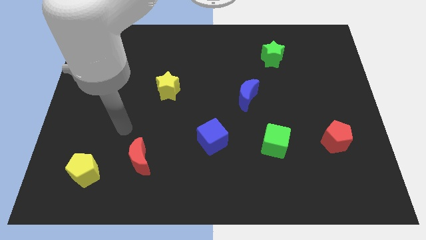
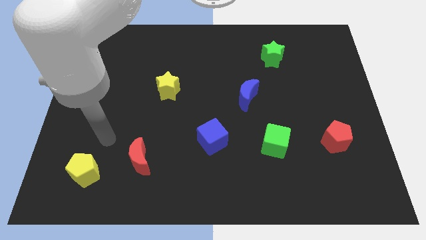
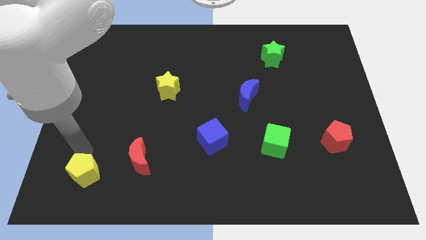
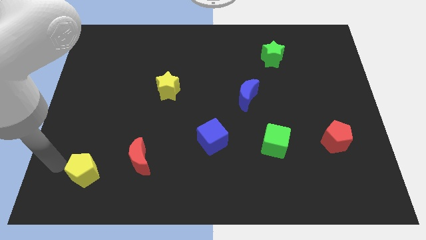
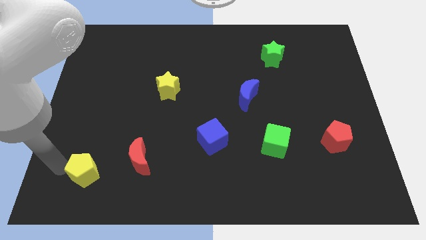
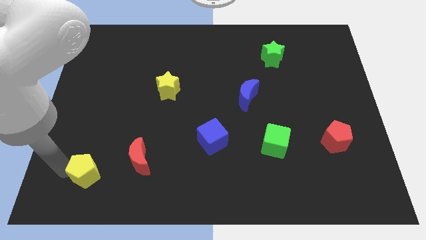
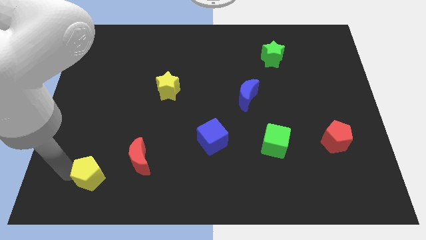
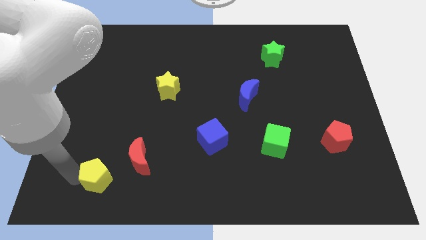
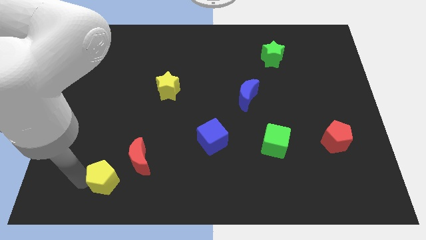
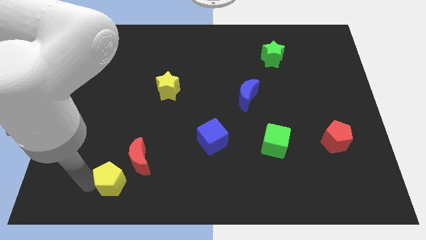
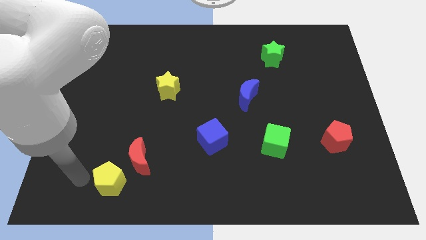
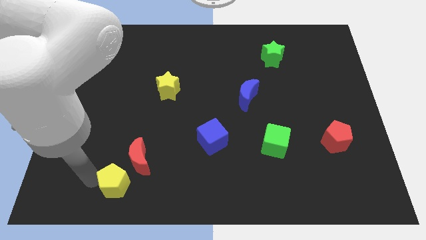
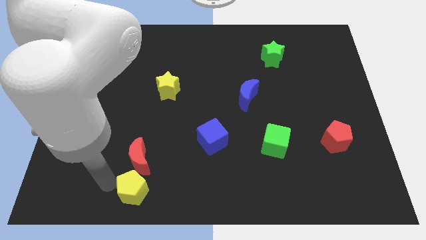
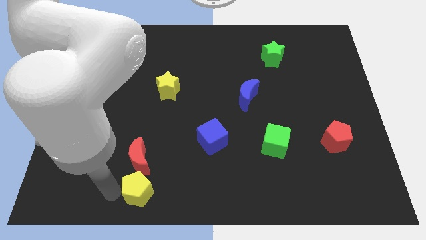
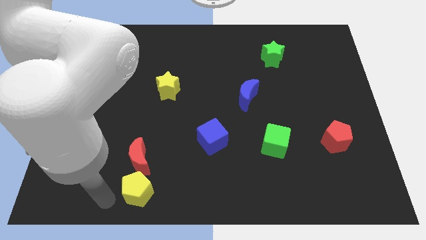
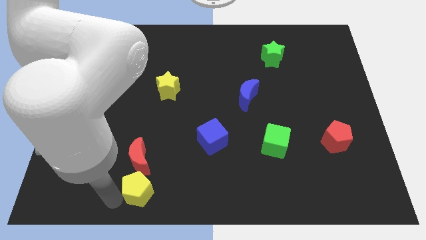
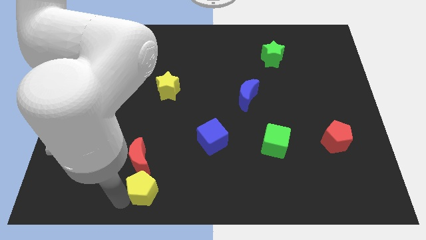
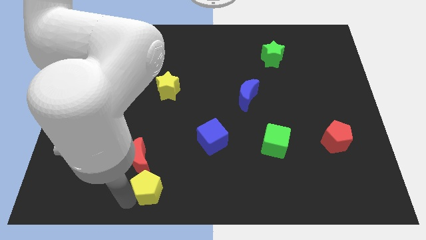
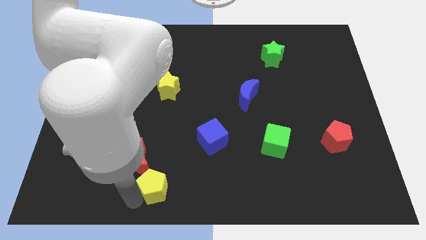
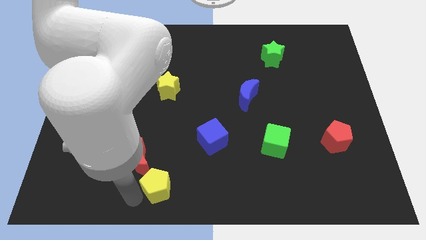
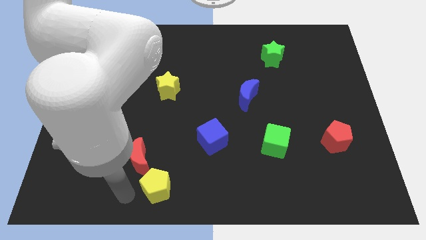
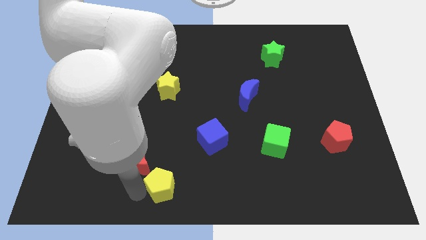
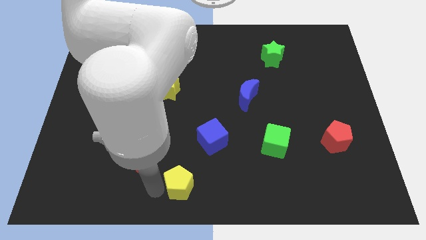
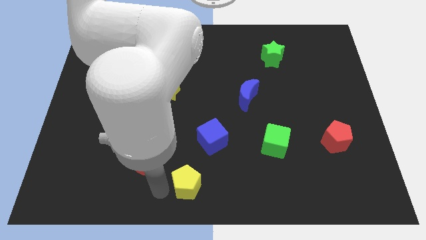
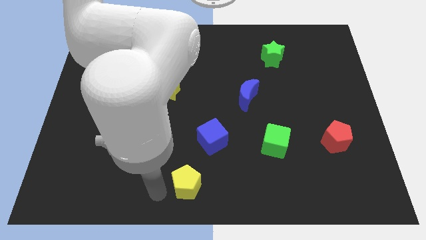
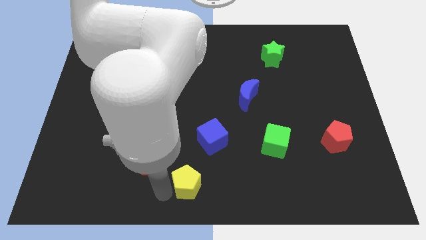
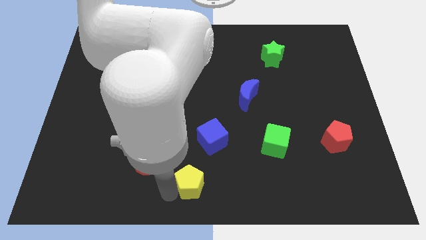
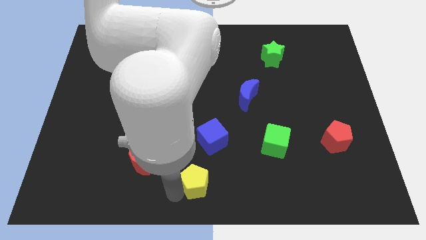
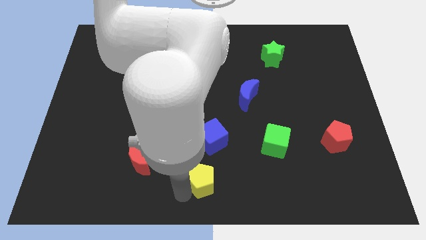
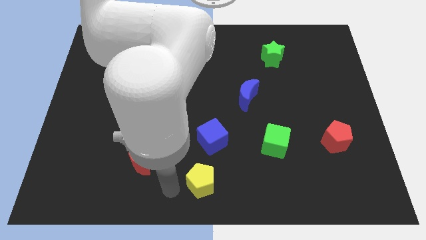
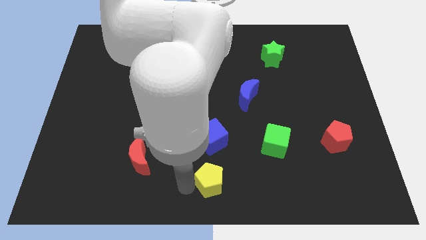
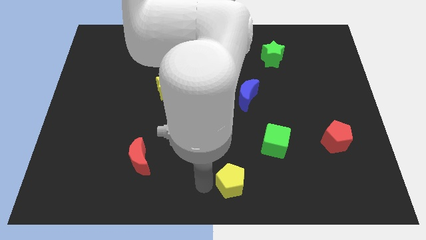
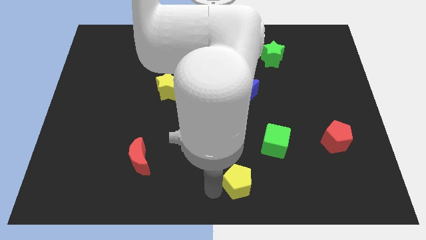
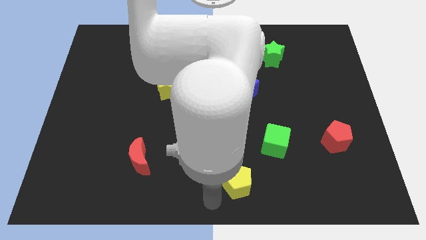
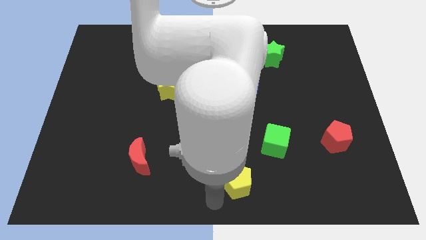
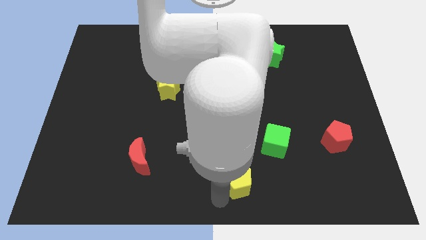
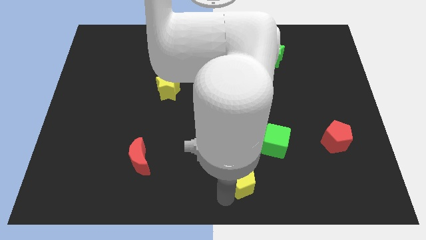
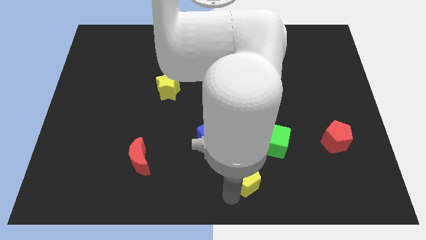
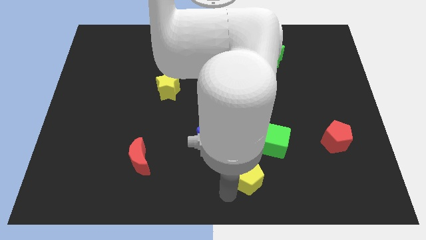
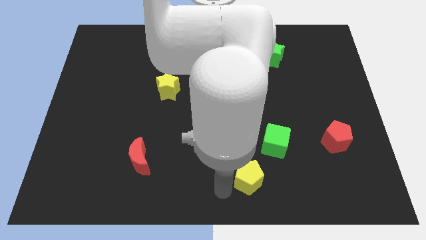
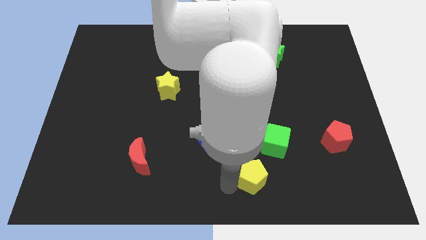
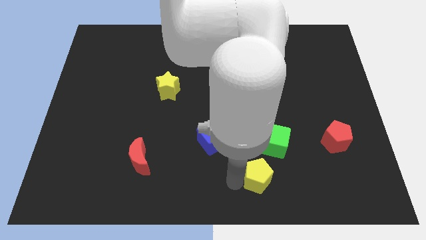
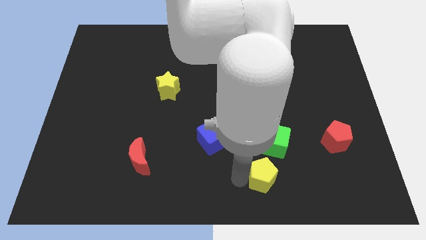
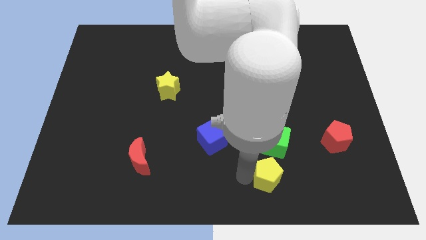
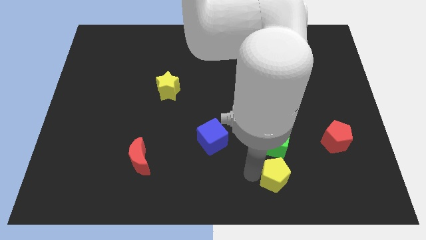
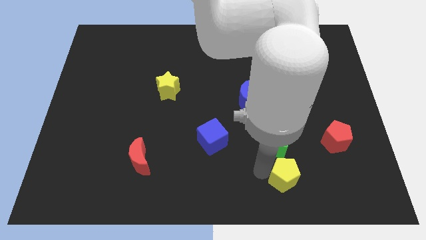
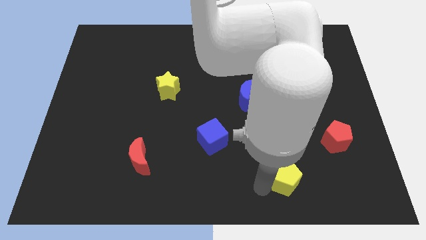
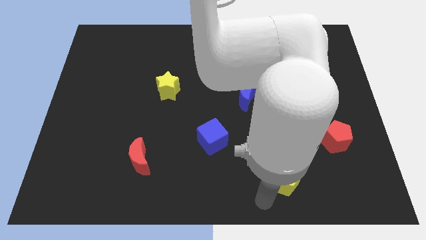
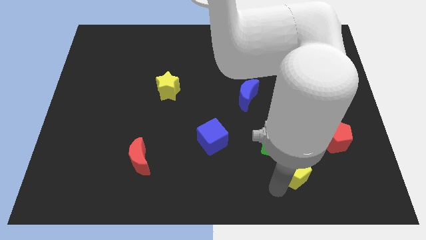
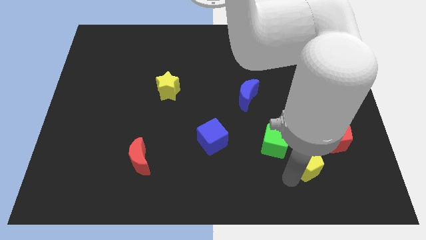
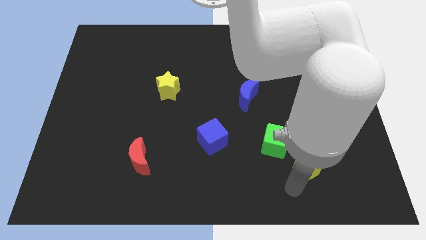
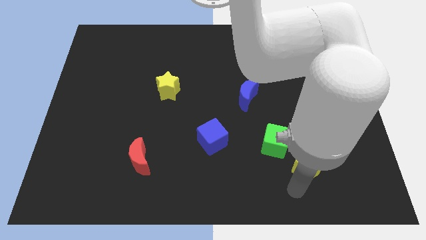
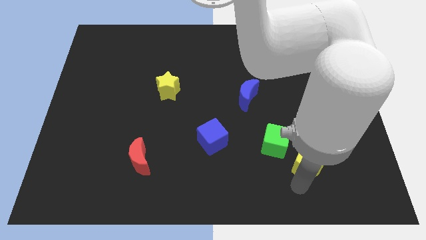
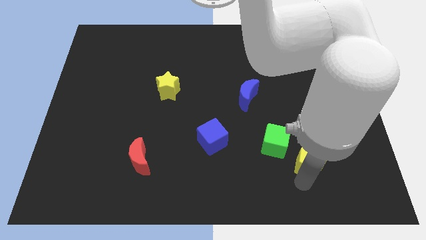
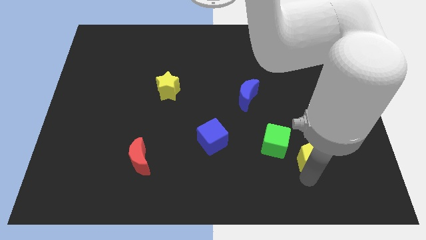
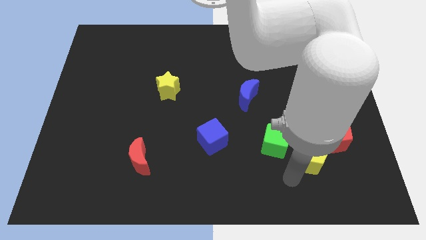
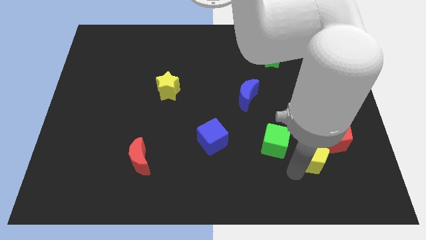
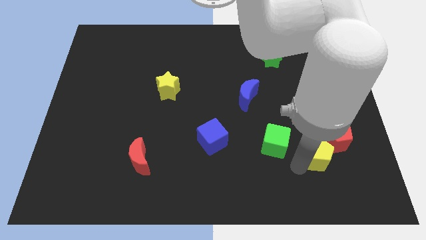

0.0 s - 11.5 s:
put the yellow pentagon close to the red pentagon

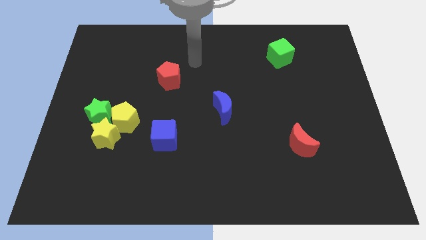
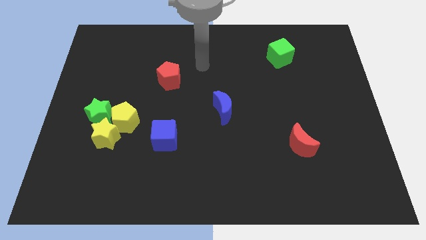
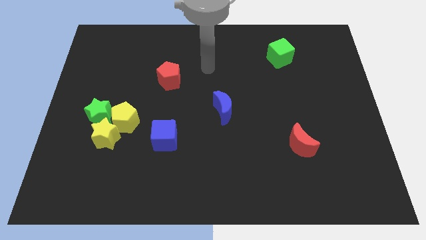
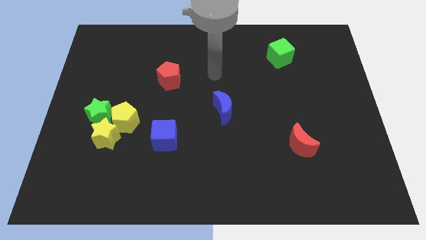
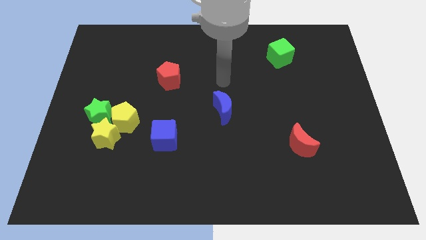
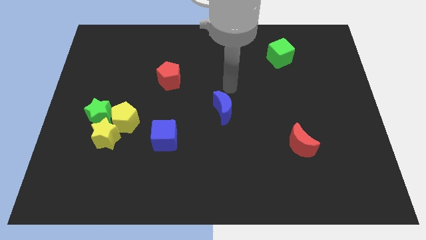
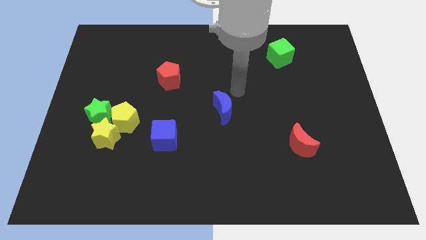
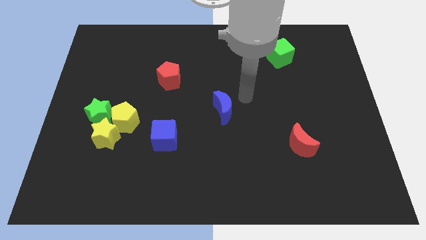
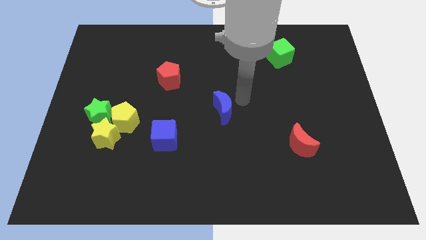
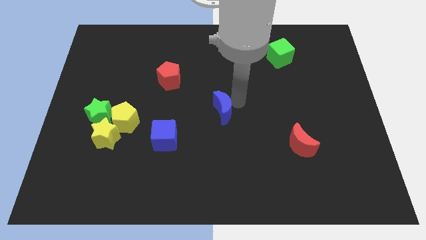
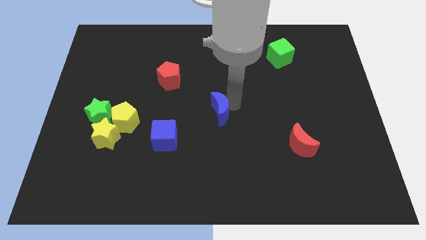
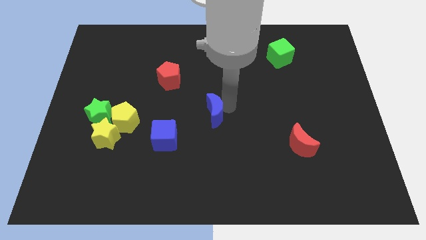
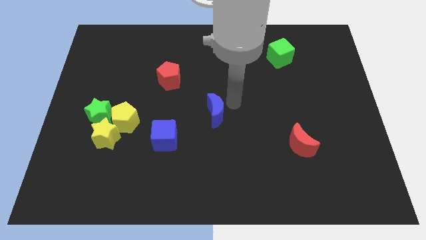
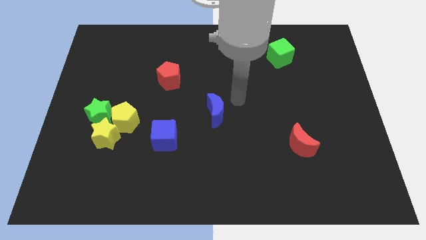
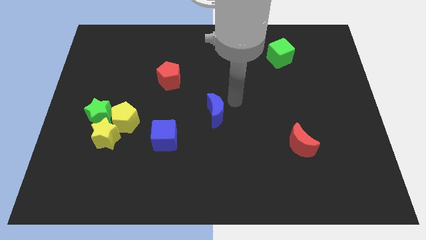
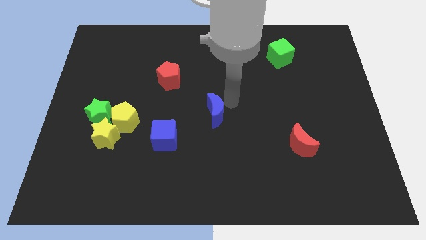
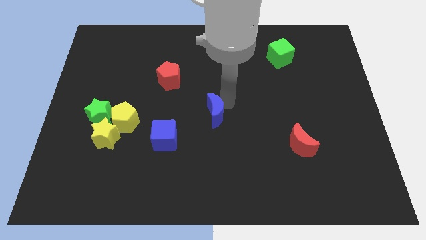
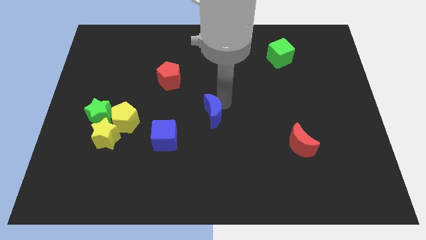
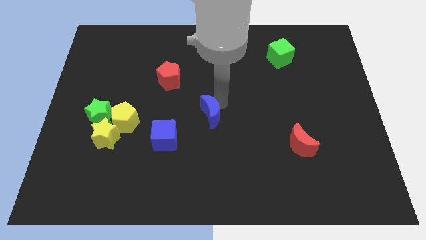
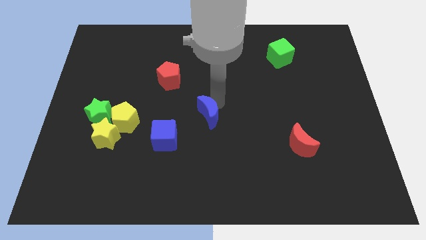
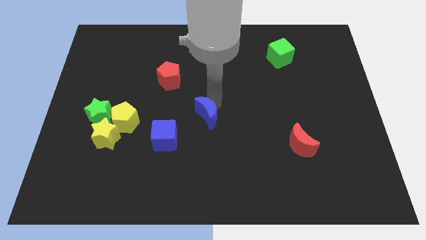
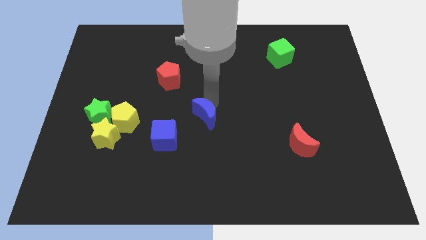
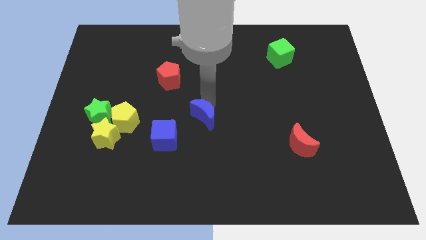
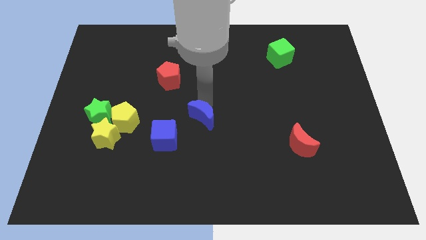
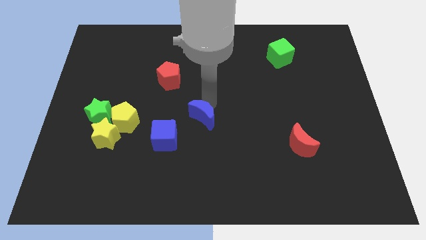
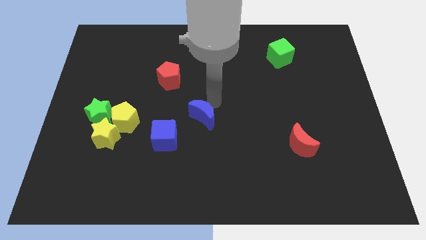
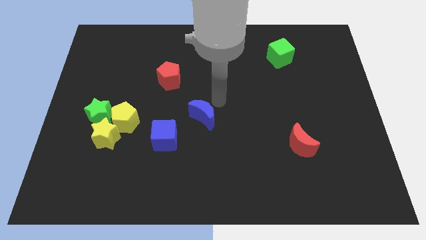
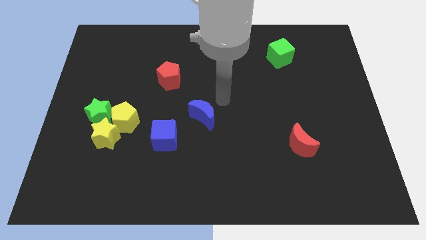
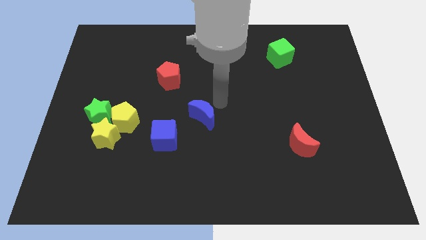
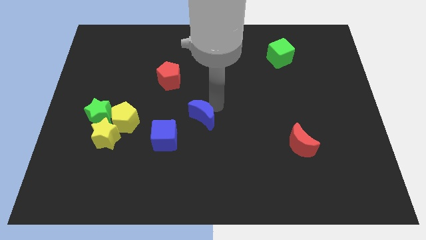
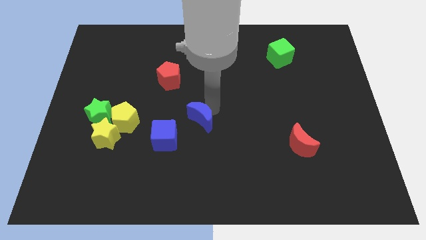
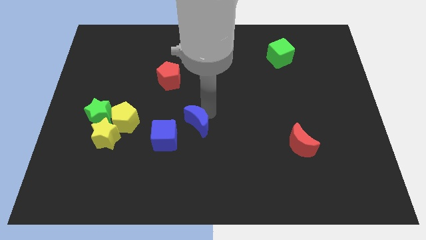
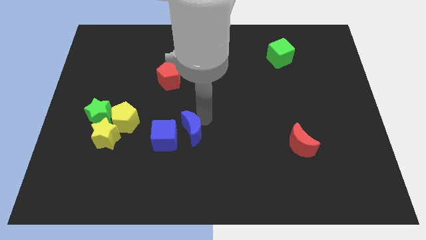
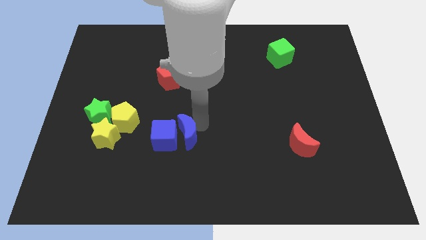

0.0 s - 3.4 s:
move the blue moon close to the blue cube
